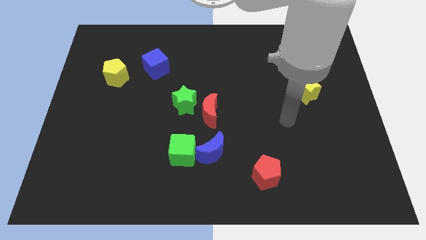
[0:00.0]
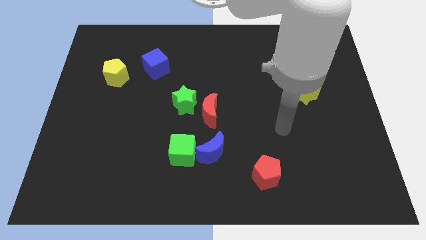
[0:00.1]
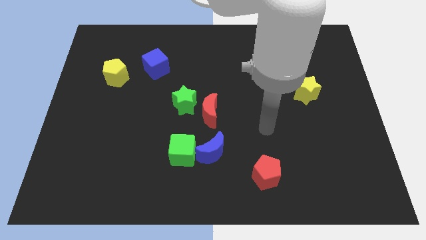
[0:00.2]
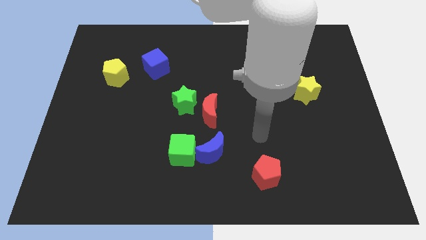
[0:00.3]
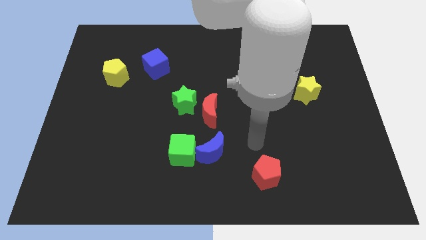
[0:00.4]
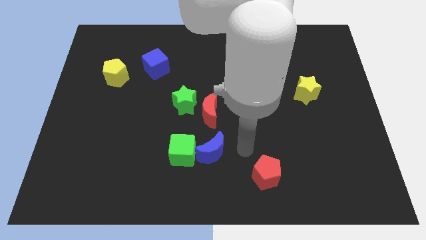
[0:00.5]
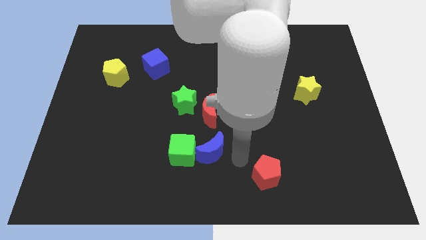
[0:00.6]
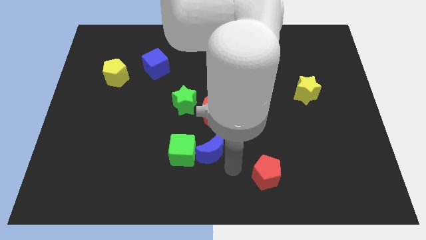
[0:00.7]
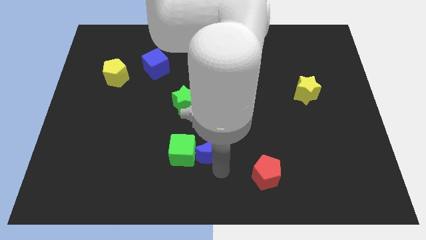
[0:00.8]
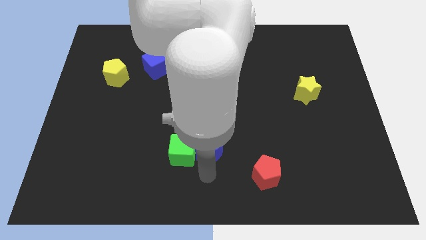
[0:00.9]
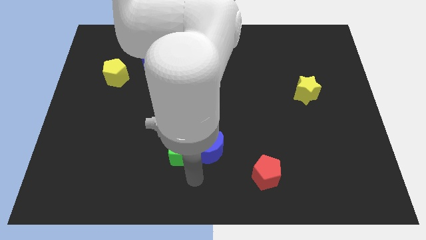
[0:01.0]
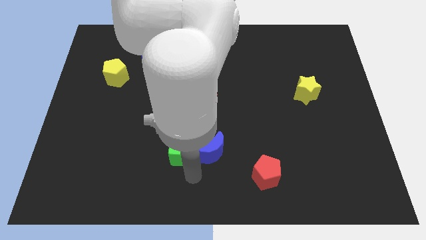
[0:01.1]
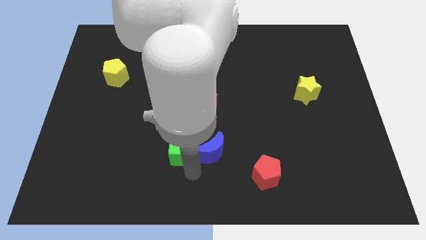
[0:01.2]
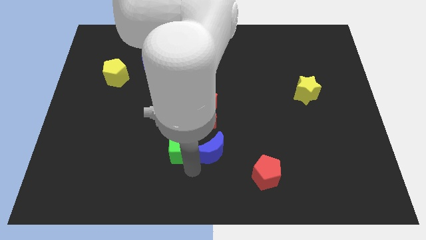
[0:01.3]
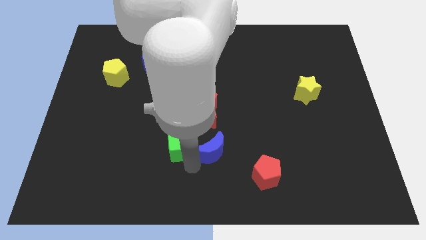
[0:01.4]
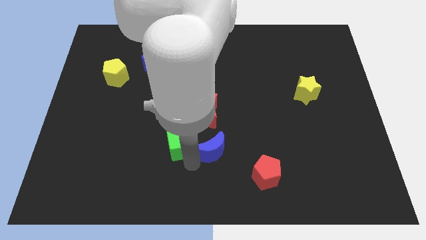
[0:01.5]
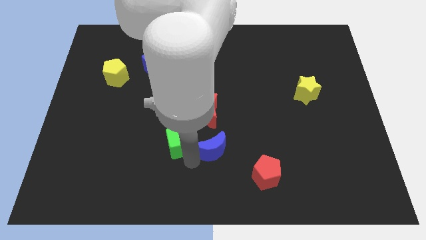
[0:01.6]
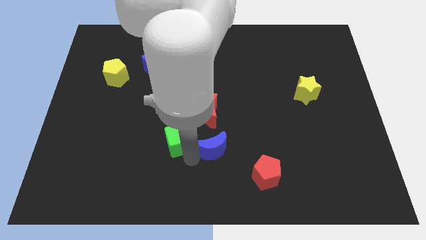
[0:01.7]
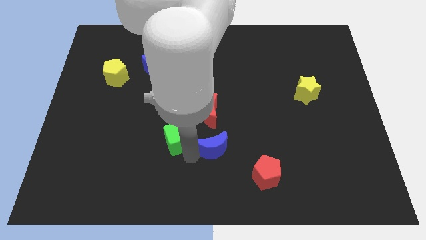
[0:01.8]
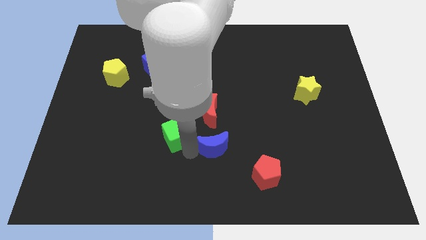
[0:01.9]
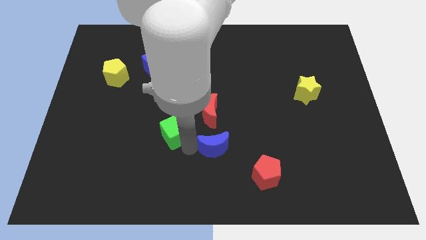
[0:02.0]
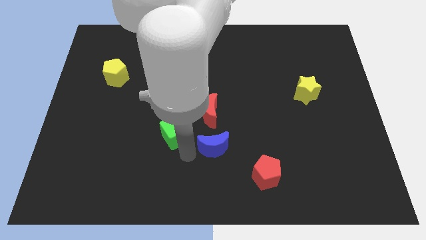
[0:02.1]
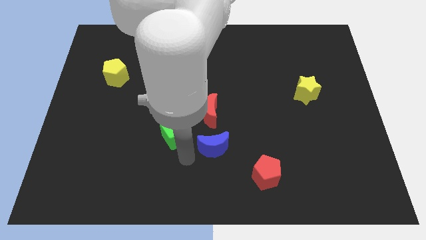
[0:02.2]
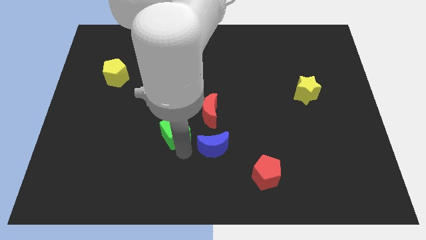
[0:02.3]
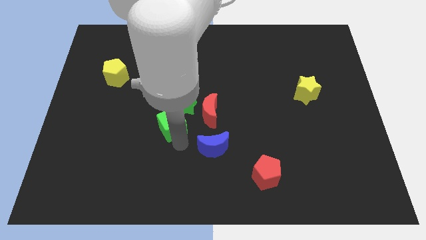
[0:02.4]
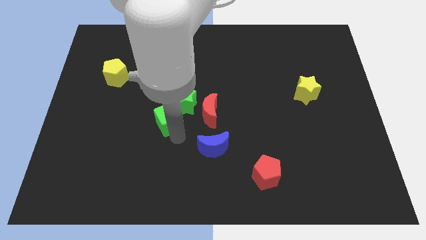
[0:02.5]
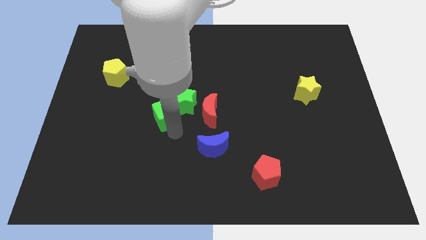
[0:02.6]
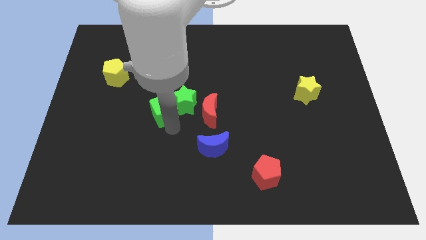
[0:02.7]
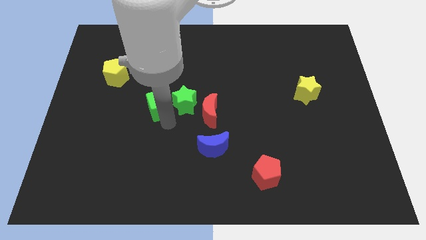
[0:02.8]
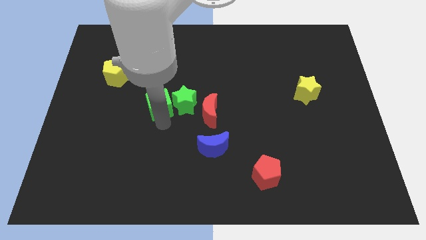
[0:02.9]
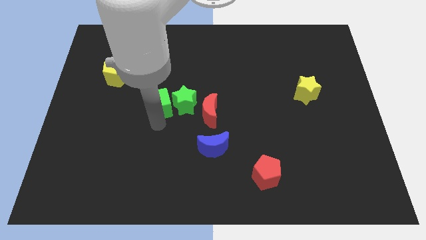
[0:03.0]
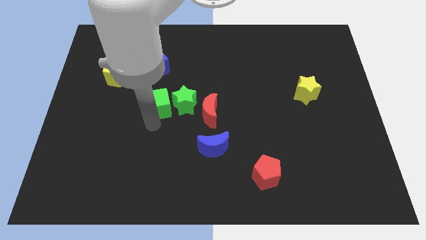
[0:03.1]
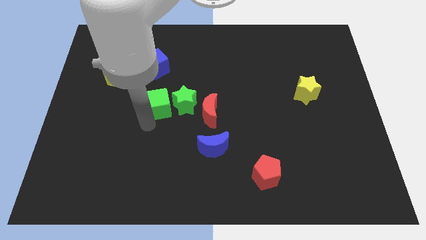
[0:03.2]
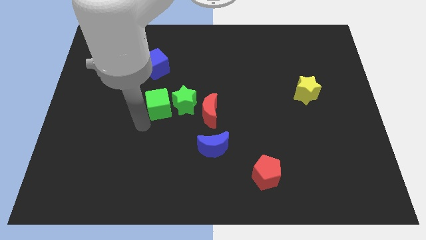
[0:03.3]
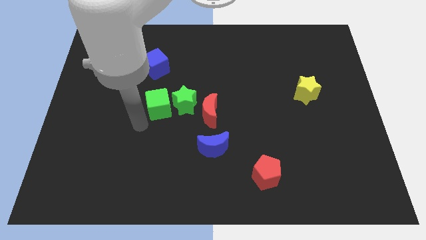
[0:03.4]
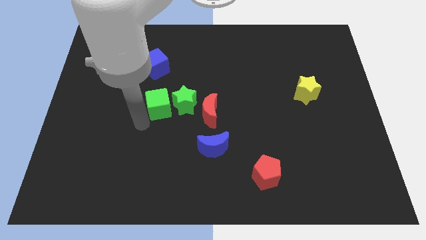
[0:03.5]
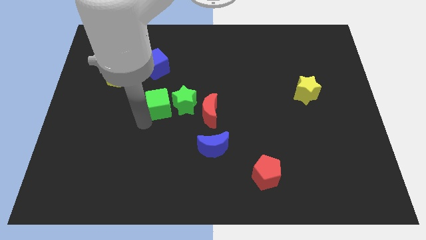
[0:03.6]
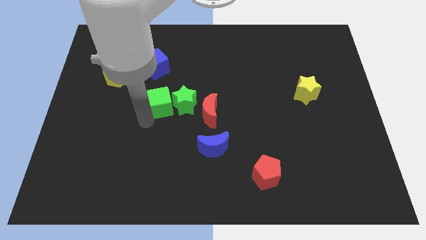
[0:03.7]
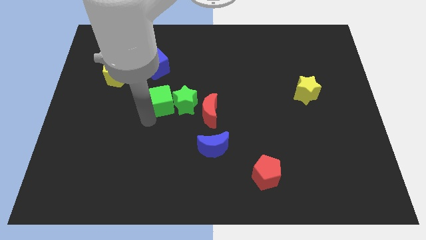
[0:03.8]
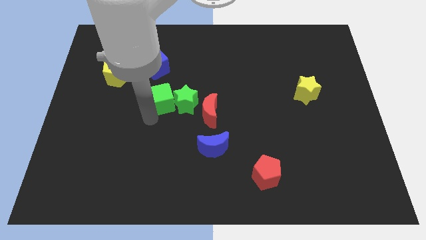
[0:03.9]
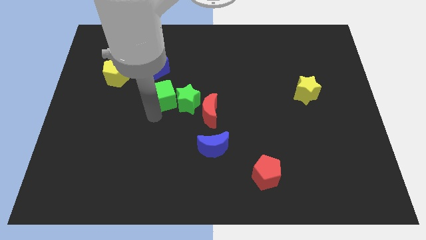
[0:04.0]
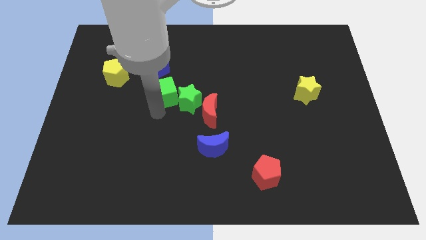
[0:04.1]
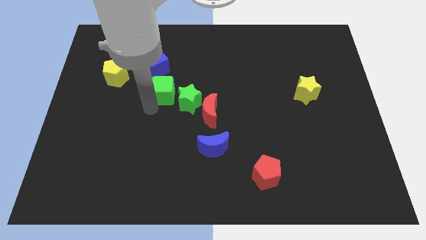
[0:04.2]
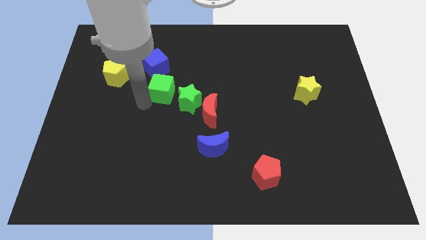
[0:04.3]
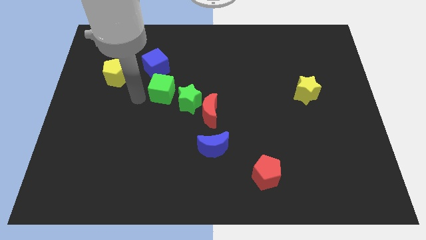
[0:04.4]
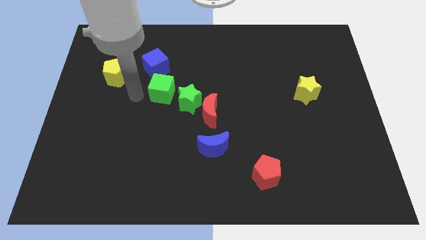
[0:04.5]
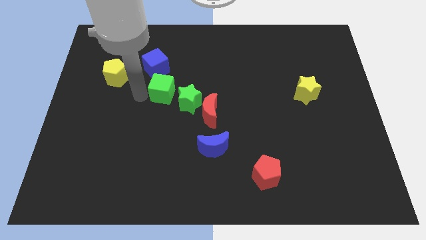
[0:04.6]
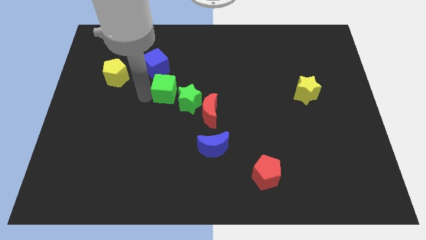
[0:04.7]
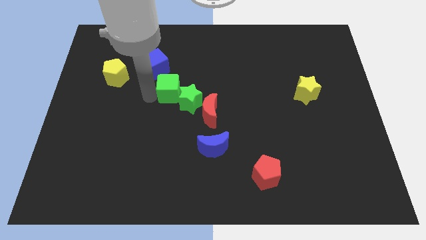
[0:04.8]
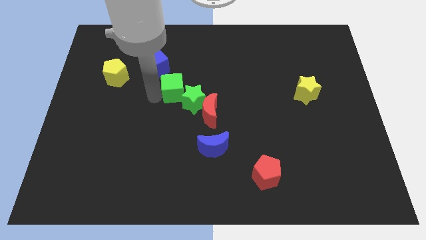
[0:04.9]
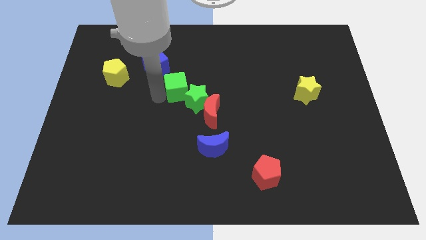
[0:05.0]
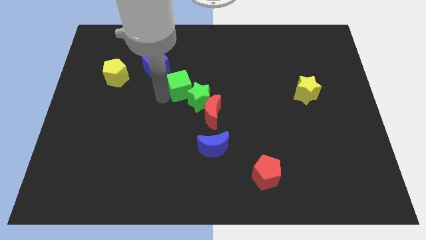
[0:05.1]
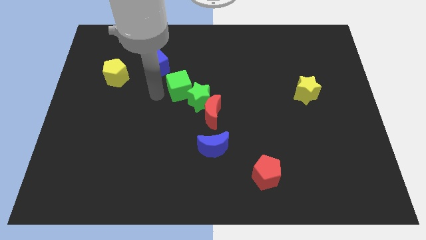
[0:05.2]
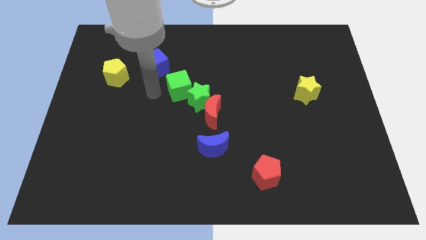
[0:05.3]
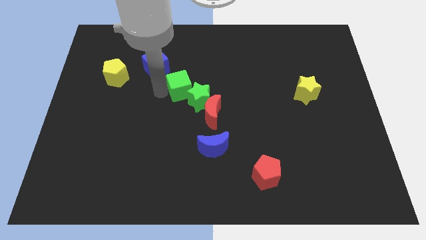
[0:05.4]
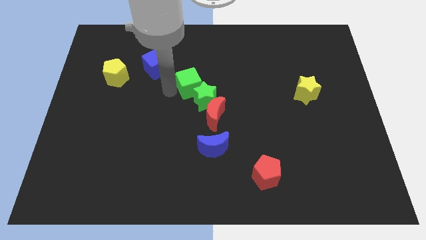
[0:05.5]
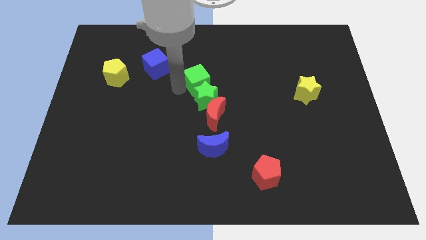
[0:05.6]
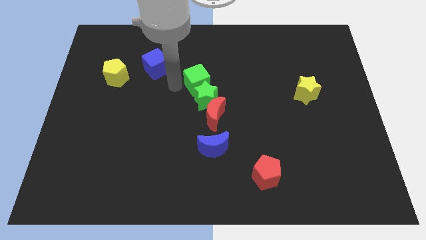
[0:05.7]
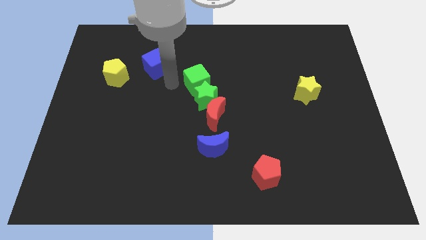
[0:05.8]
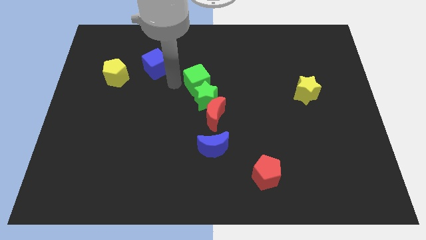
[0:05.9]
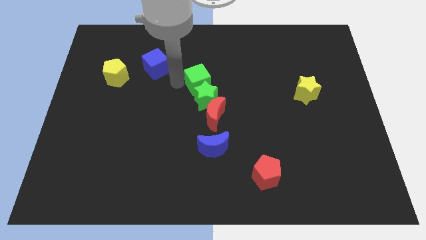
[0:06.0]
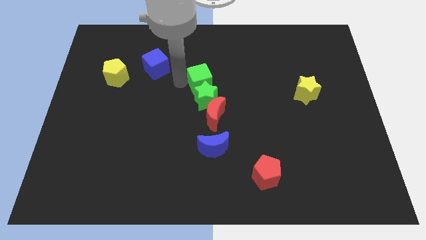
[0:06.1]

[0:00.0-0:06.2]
push the green cube diagonally up and to the right of the green star
